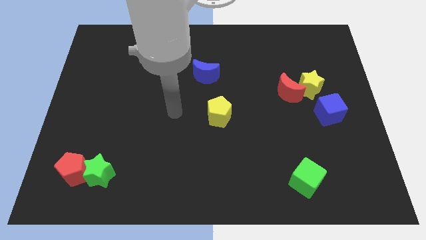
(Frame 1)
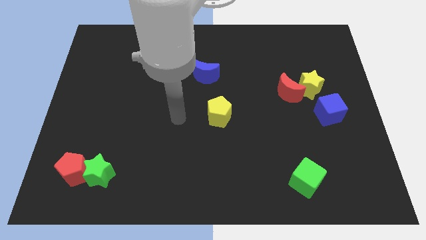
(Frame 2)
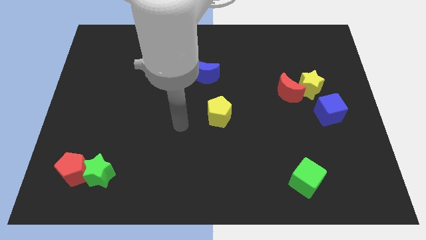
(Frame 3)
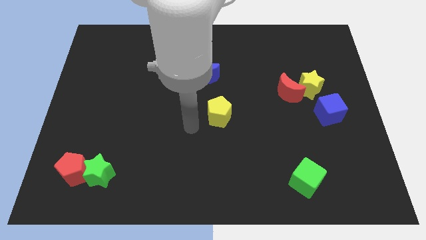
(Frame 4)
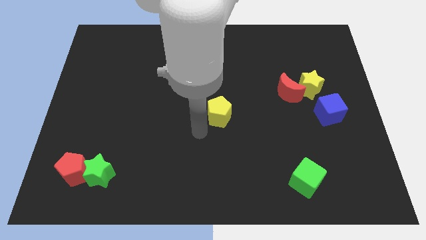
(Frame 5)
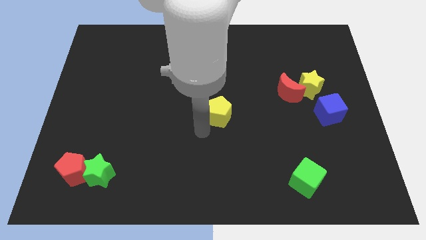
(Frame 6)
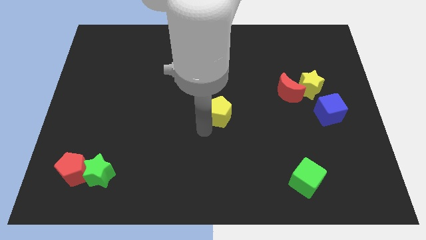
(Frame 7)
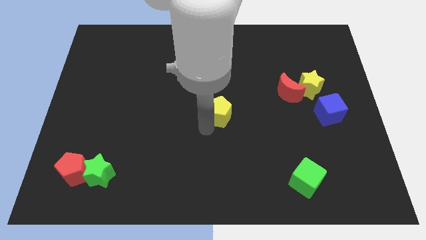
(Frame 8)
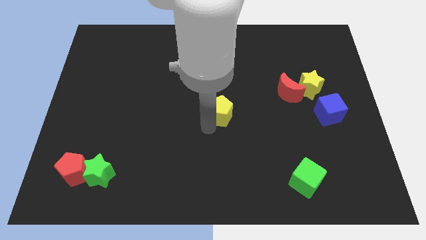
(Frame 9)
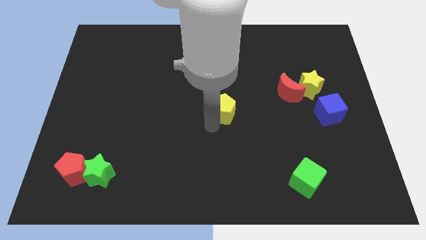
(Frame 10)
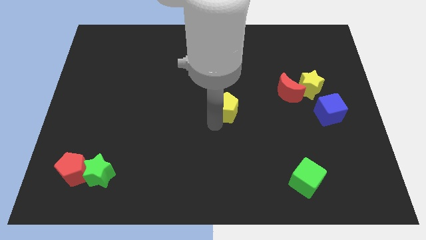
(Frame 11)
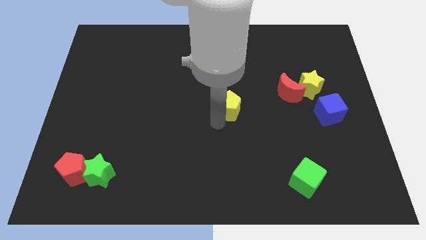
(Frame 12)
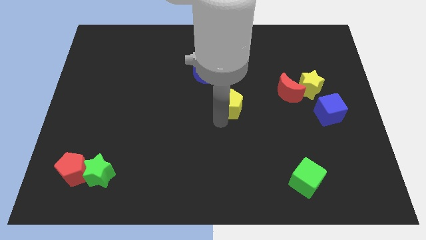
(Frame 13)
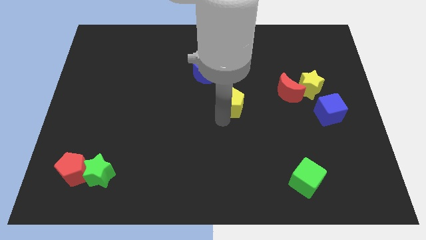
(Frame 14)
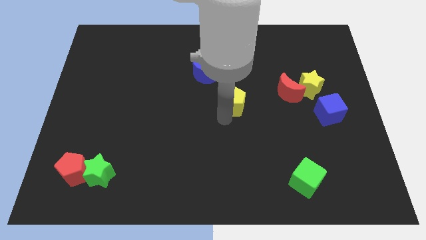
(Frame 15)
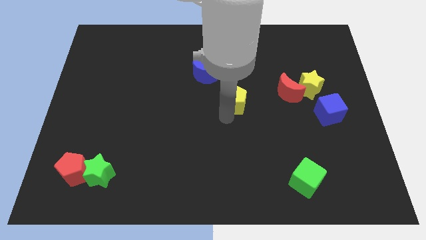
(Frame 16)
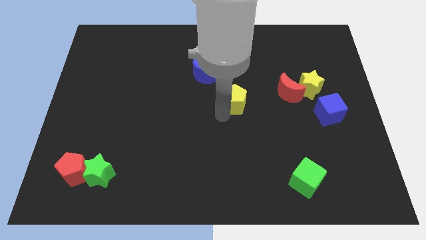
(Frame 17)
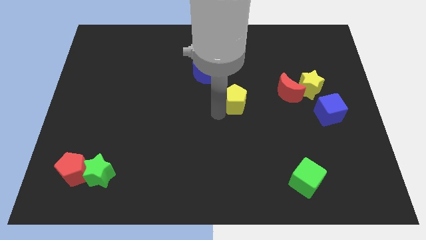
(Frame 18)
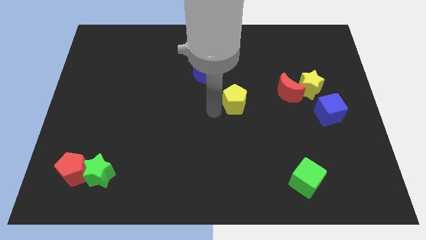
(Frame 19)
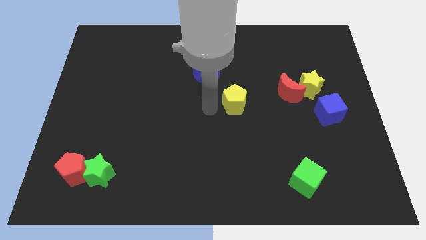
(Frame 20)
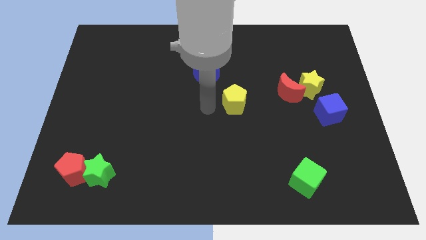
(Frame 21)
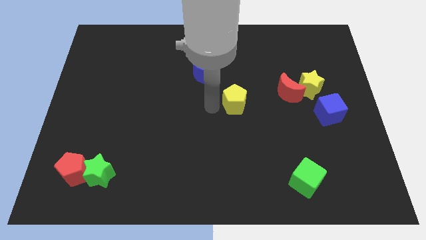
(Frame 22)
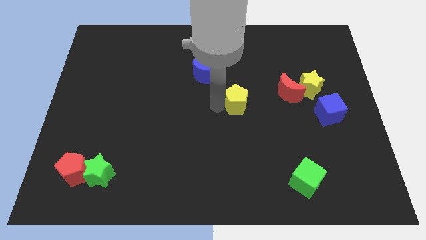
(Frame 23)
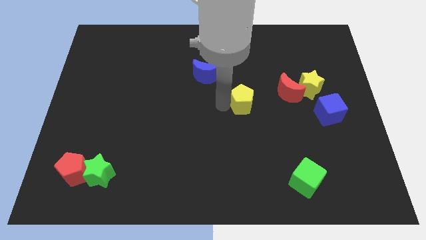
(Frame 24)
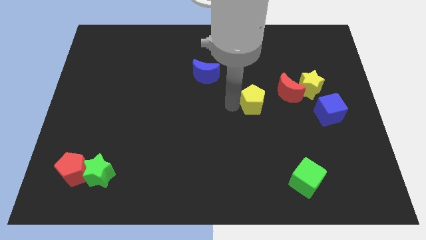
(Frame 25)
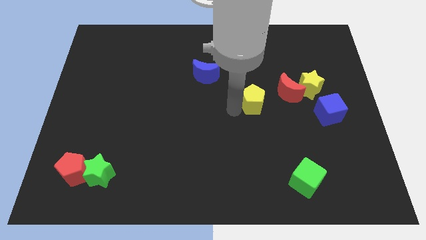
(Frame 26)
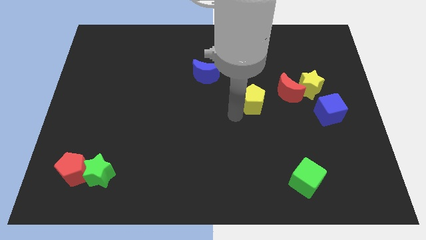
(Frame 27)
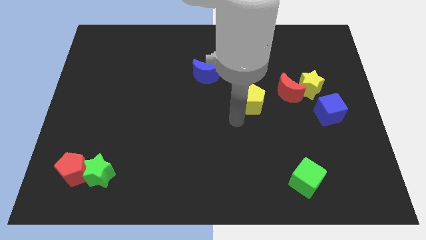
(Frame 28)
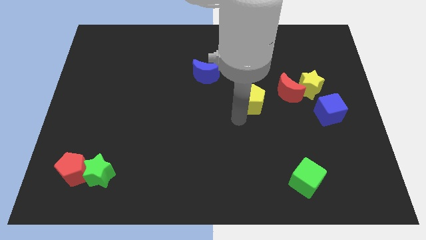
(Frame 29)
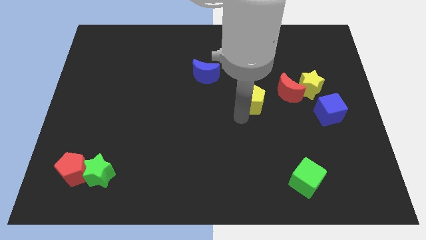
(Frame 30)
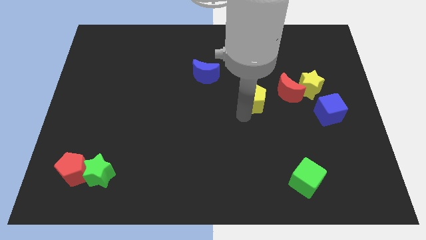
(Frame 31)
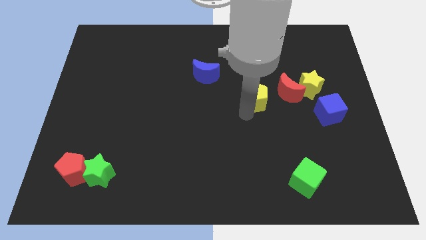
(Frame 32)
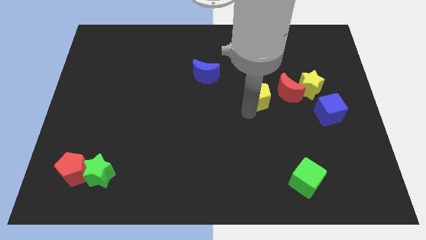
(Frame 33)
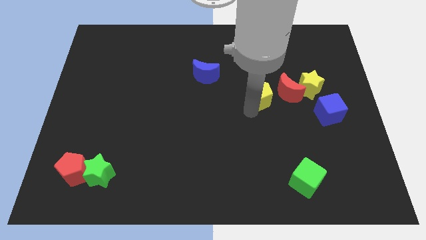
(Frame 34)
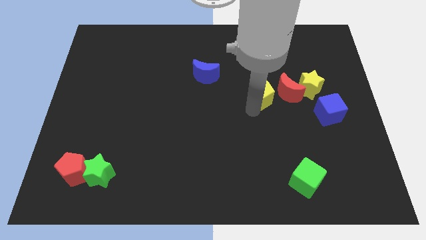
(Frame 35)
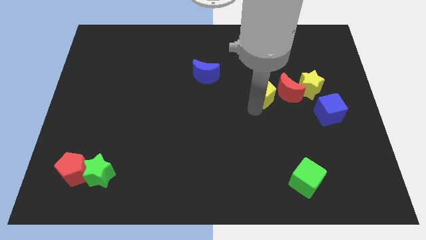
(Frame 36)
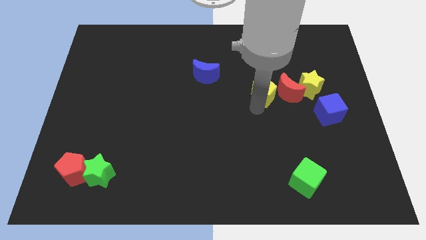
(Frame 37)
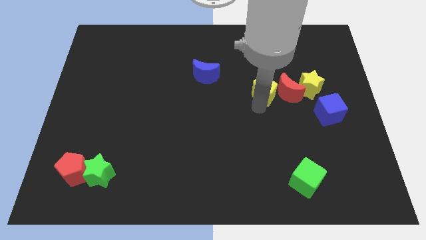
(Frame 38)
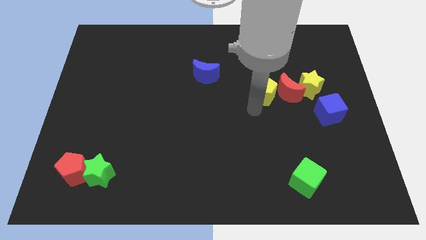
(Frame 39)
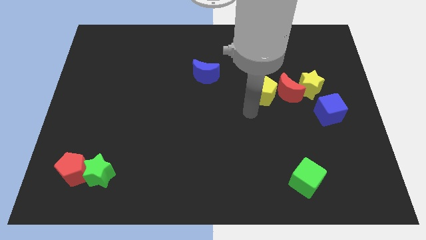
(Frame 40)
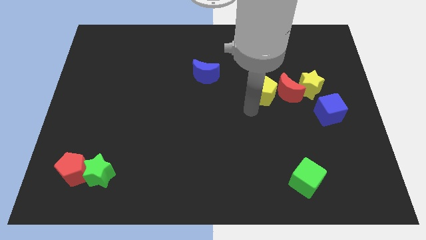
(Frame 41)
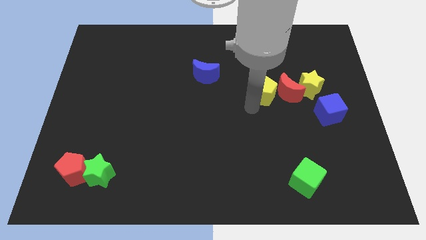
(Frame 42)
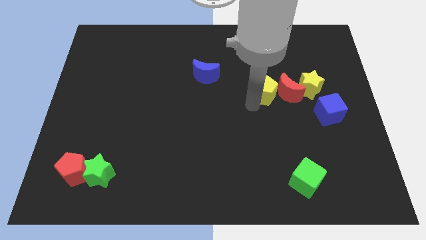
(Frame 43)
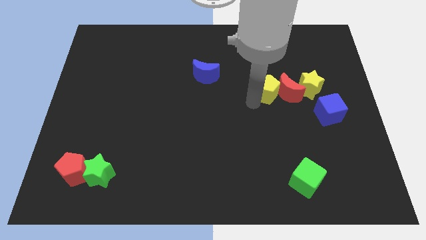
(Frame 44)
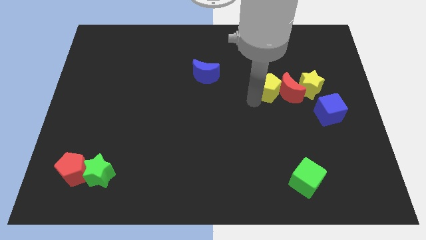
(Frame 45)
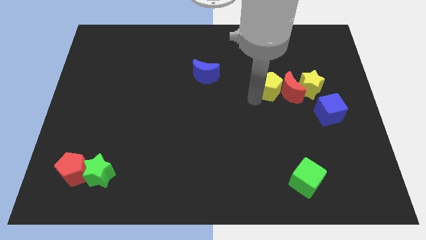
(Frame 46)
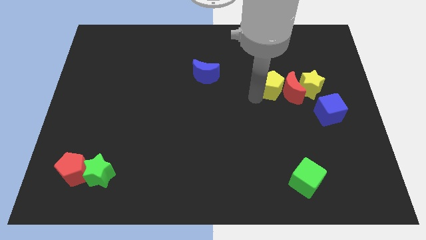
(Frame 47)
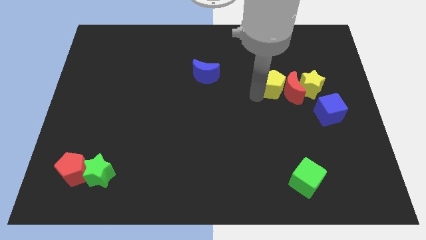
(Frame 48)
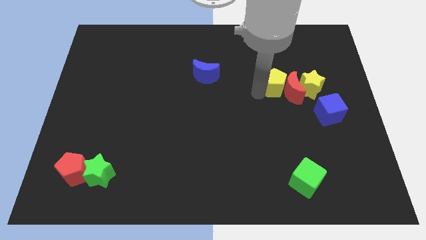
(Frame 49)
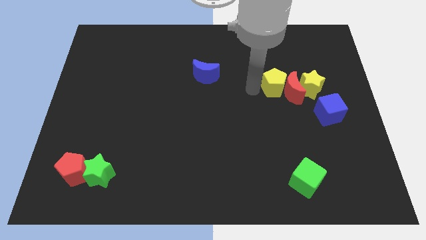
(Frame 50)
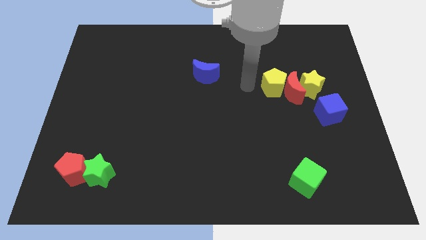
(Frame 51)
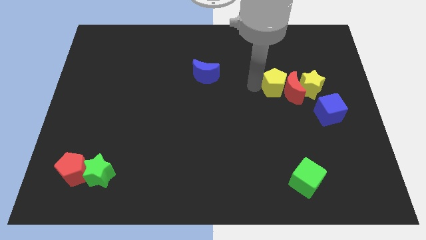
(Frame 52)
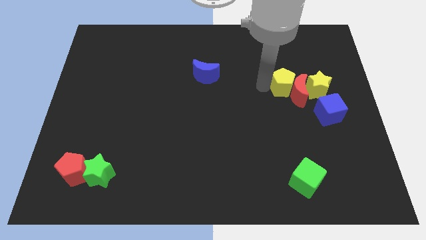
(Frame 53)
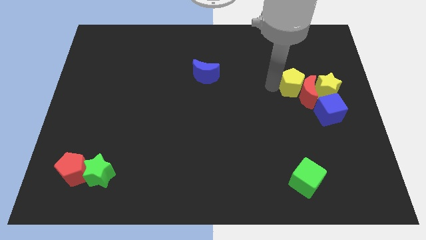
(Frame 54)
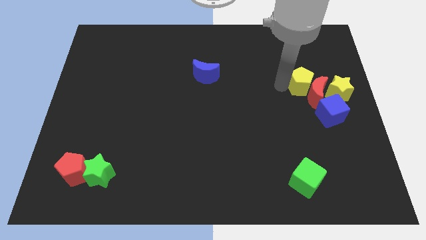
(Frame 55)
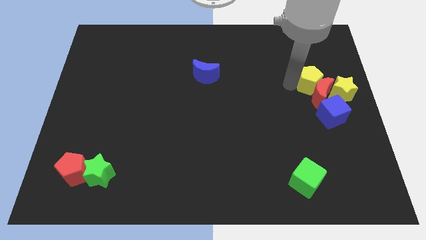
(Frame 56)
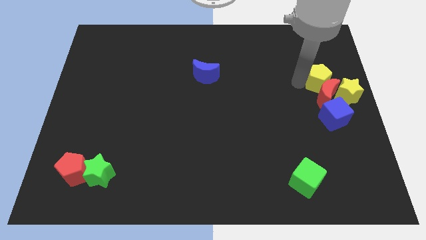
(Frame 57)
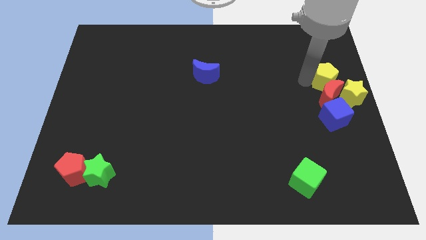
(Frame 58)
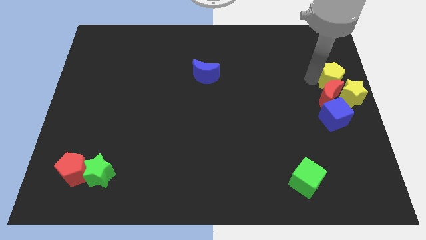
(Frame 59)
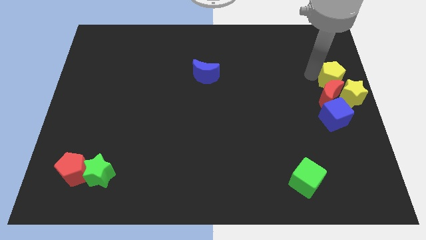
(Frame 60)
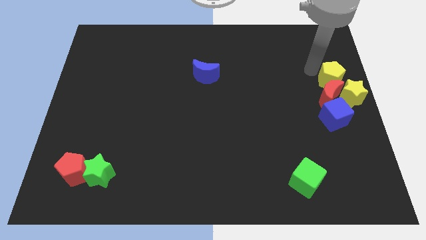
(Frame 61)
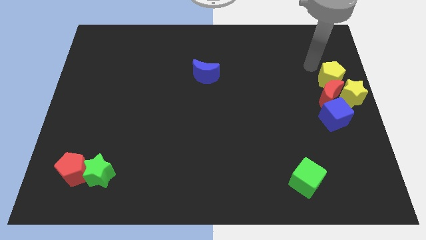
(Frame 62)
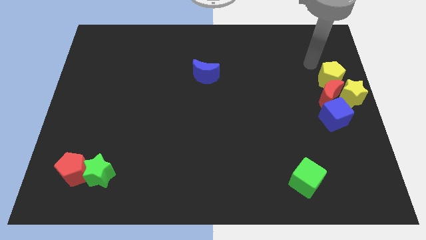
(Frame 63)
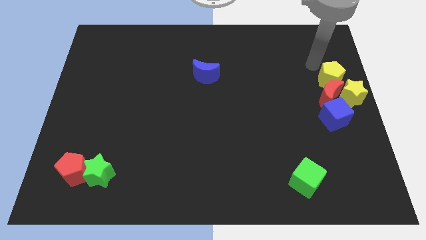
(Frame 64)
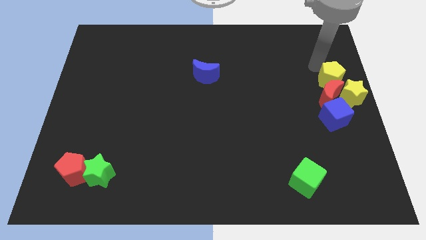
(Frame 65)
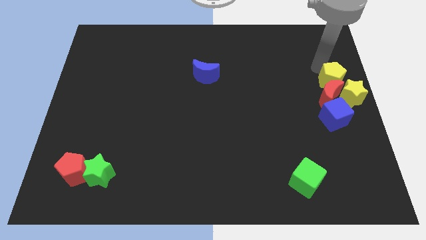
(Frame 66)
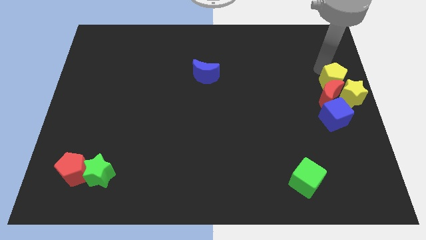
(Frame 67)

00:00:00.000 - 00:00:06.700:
put the yellow pentagon close to the yellow star

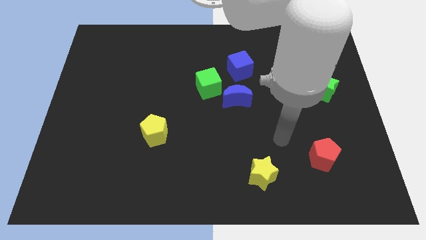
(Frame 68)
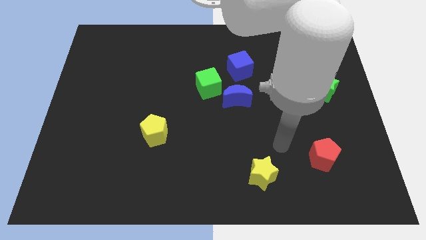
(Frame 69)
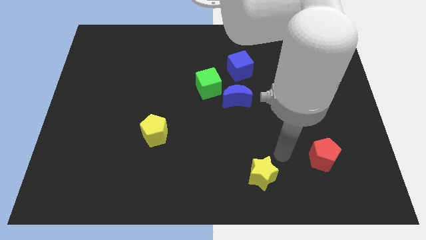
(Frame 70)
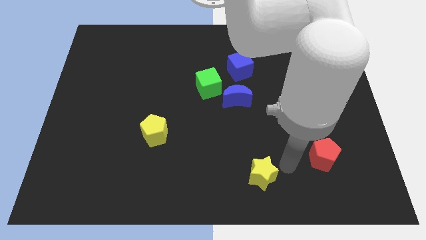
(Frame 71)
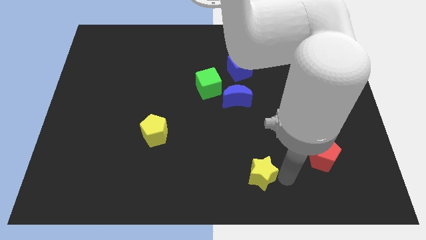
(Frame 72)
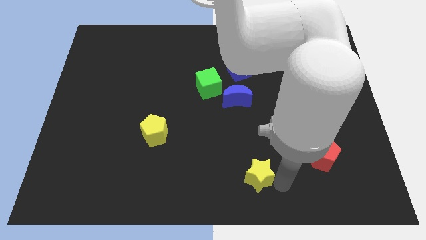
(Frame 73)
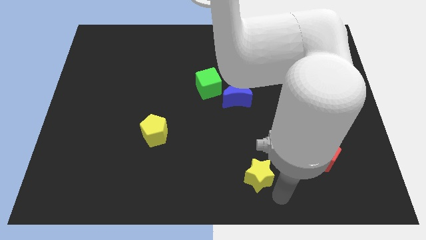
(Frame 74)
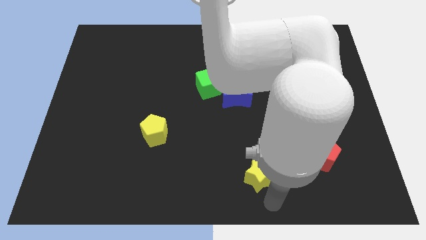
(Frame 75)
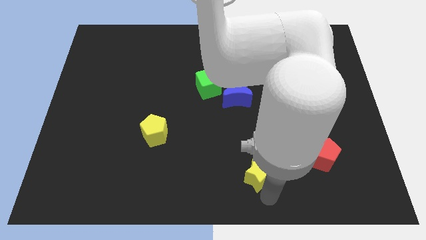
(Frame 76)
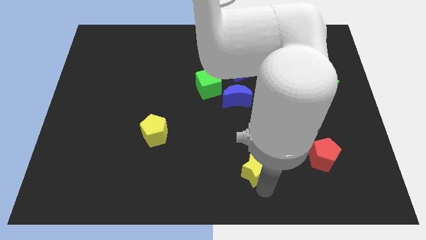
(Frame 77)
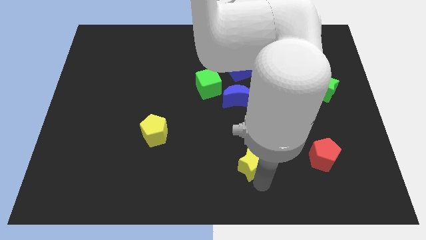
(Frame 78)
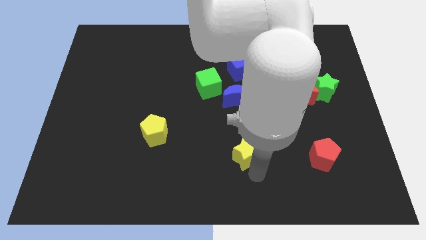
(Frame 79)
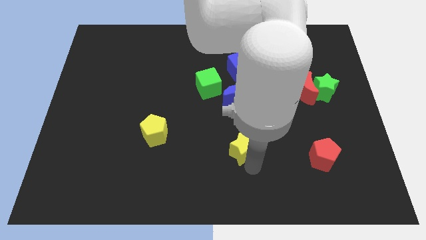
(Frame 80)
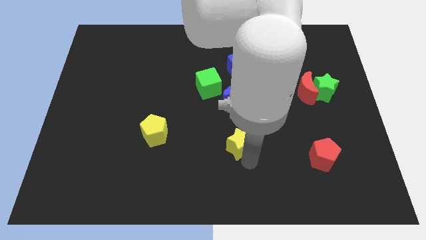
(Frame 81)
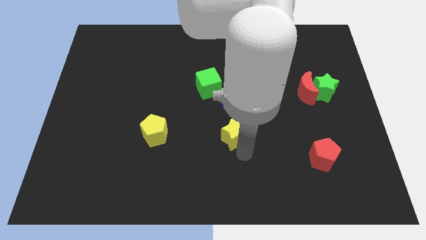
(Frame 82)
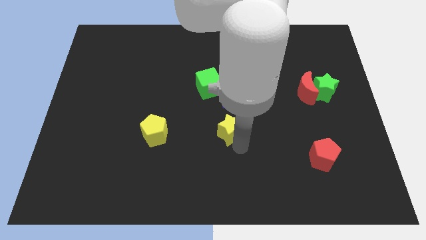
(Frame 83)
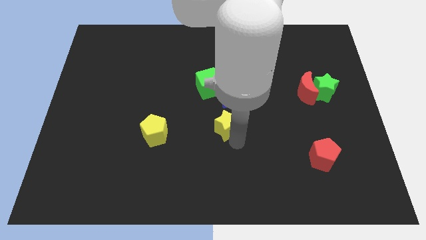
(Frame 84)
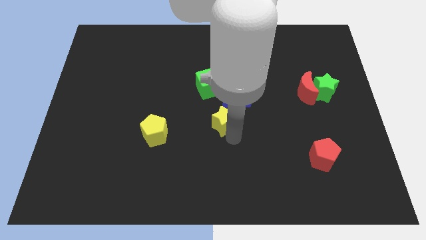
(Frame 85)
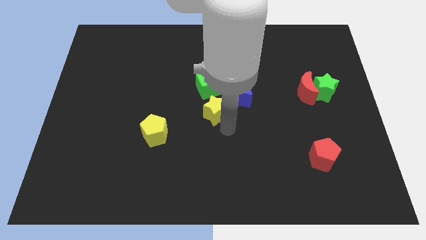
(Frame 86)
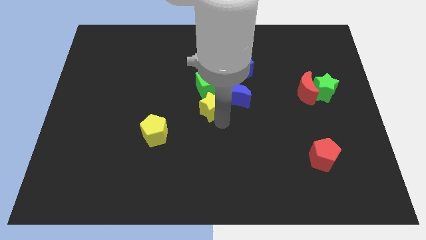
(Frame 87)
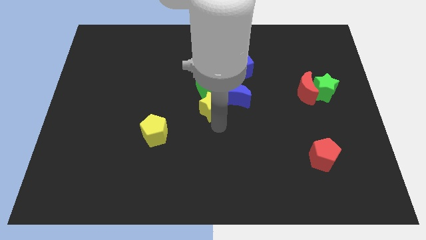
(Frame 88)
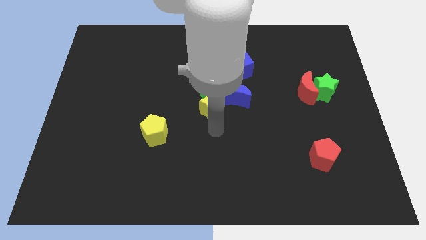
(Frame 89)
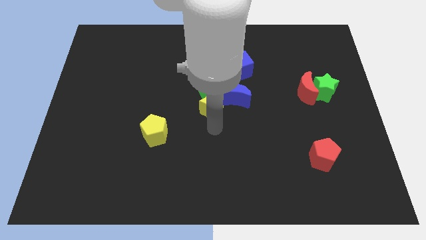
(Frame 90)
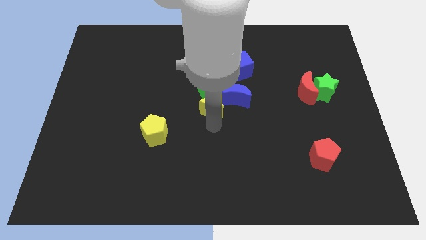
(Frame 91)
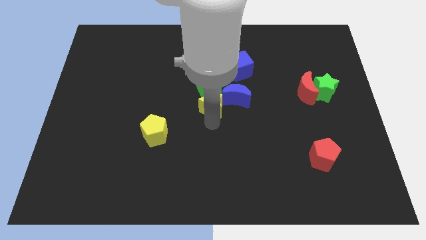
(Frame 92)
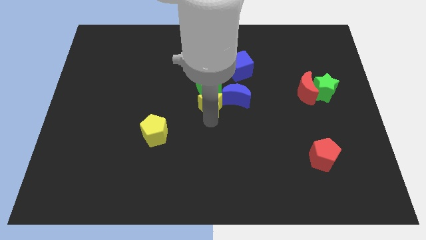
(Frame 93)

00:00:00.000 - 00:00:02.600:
put the yellow star next to the green cube
